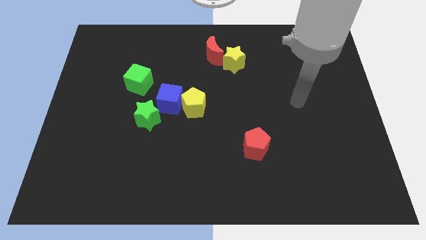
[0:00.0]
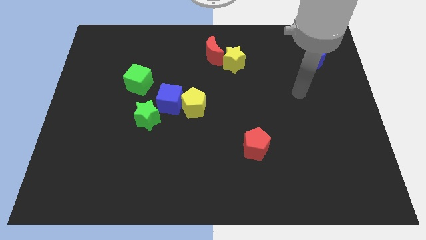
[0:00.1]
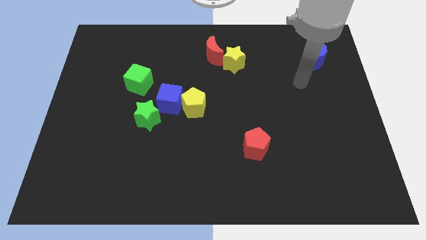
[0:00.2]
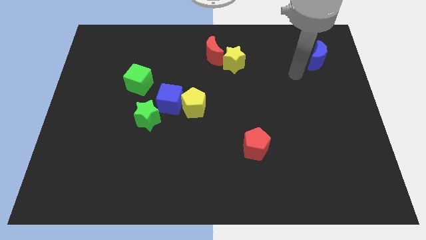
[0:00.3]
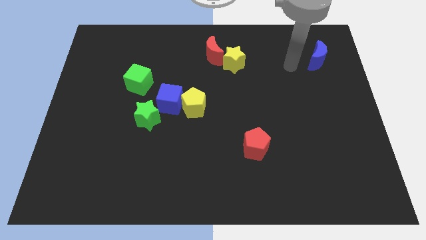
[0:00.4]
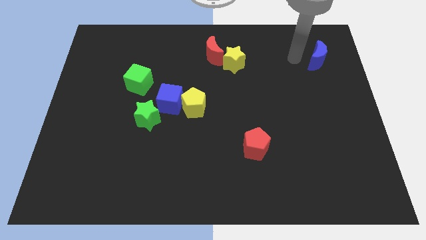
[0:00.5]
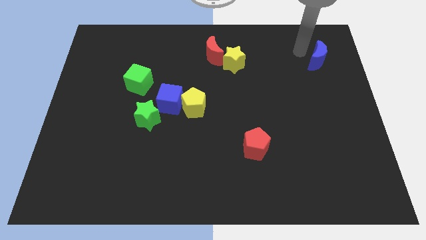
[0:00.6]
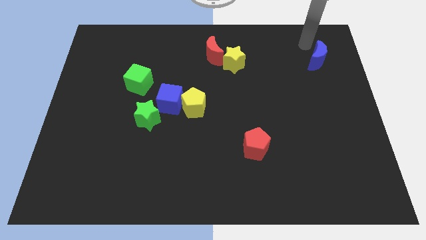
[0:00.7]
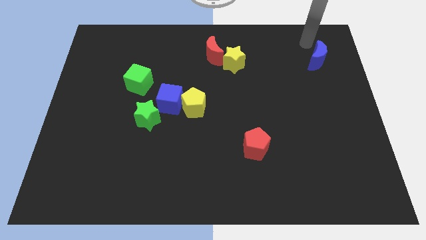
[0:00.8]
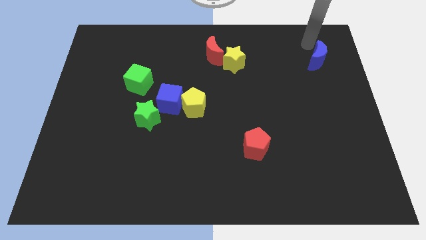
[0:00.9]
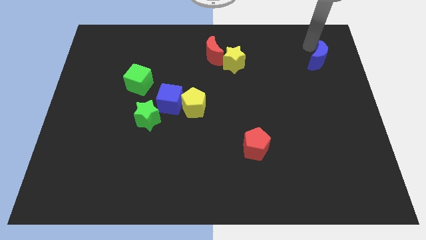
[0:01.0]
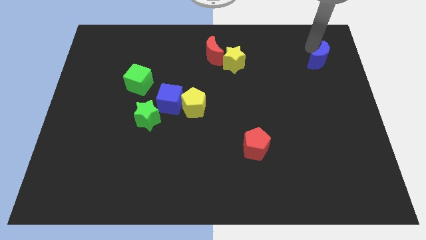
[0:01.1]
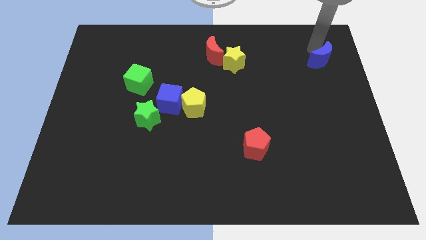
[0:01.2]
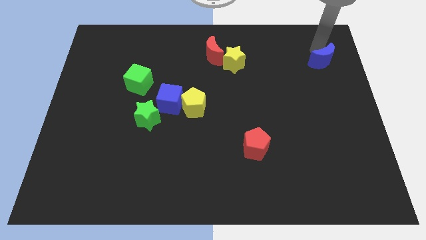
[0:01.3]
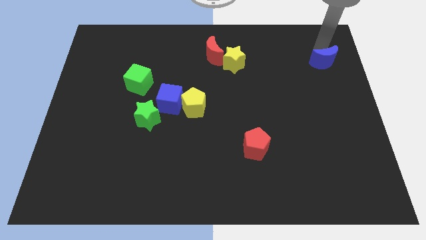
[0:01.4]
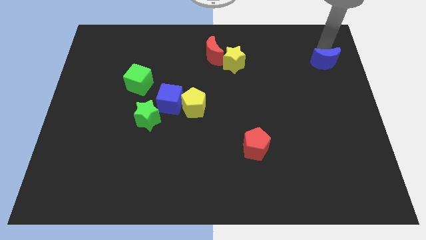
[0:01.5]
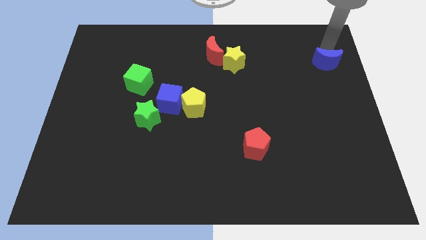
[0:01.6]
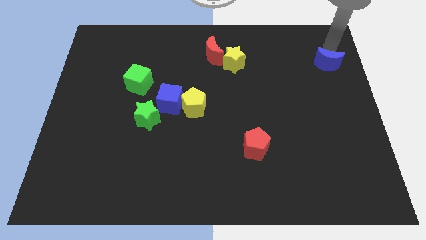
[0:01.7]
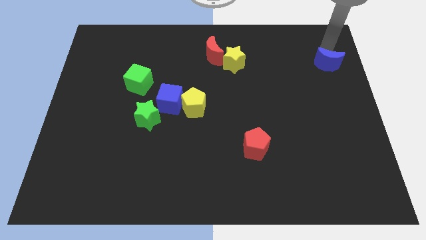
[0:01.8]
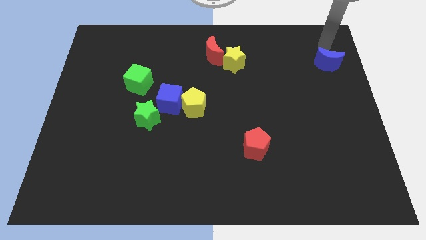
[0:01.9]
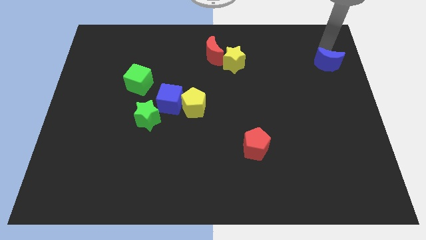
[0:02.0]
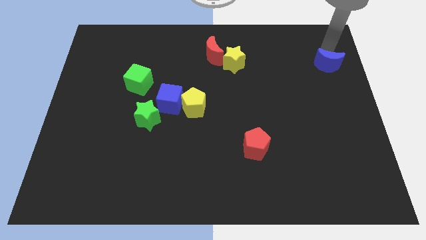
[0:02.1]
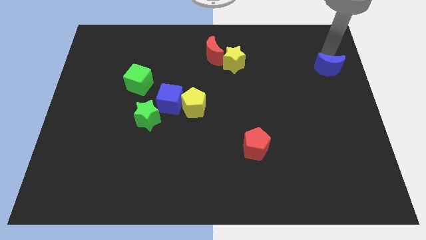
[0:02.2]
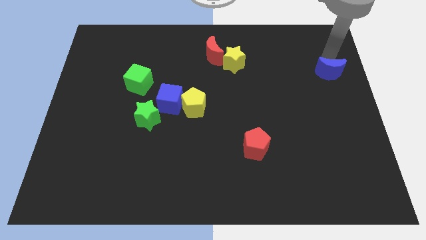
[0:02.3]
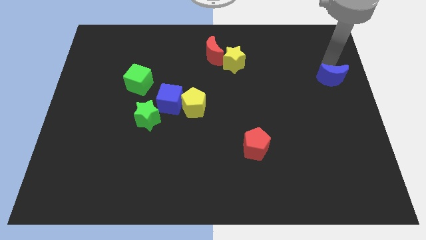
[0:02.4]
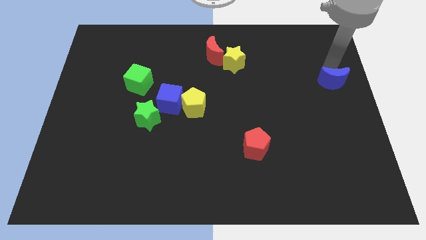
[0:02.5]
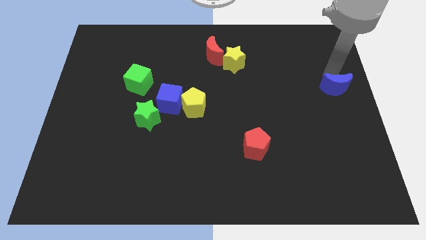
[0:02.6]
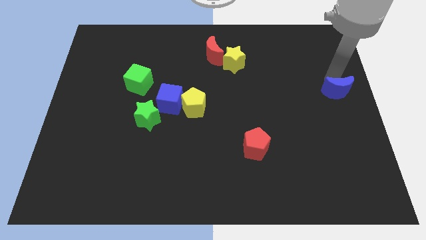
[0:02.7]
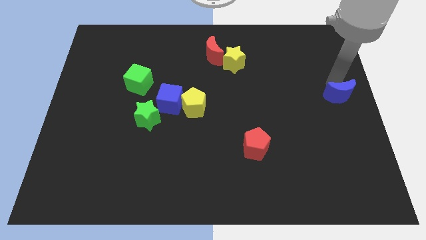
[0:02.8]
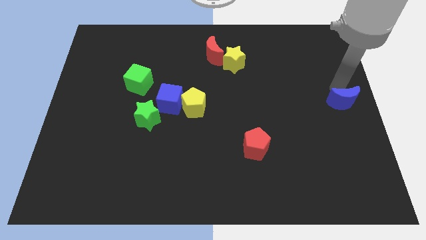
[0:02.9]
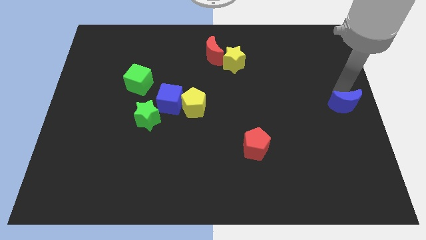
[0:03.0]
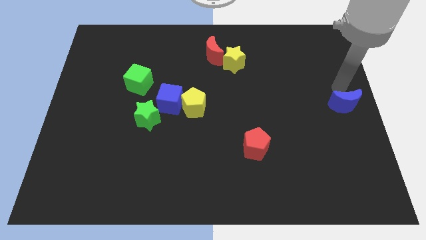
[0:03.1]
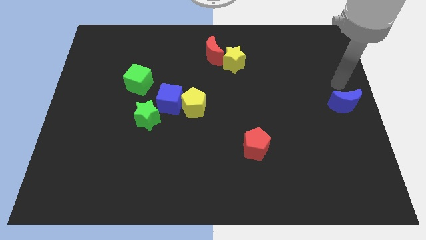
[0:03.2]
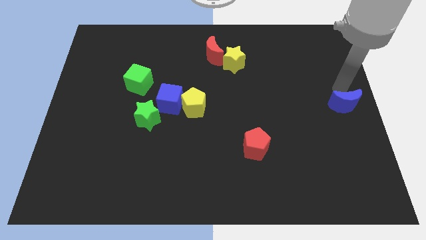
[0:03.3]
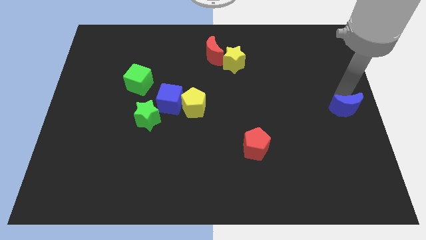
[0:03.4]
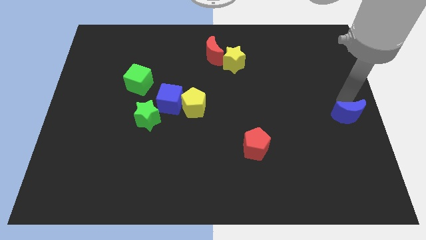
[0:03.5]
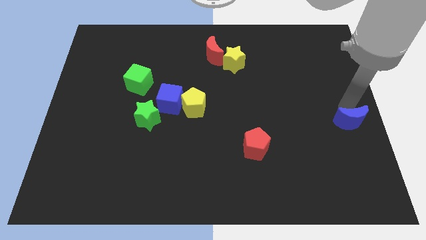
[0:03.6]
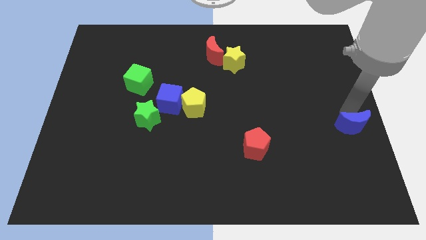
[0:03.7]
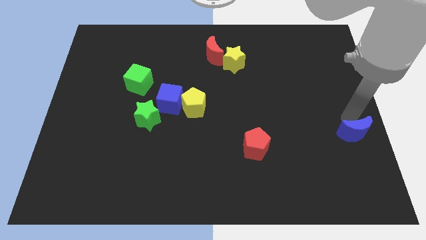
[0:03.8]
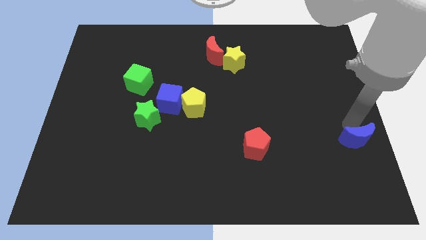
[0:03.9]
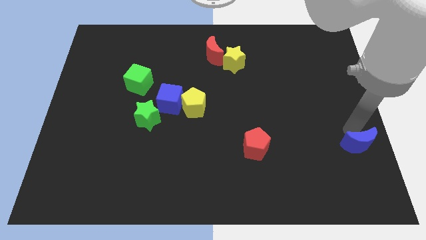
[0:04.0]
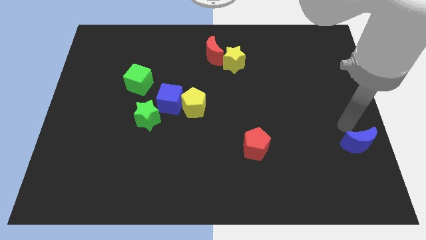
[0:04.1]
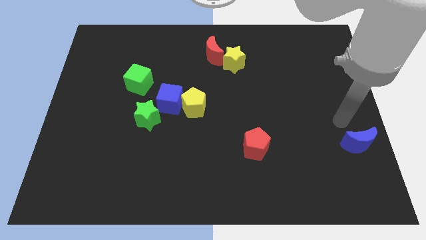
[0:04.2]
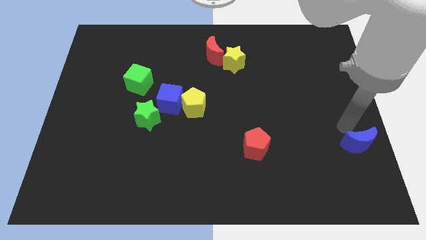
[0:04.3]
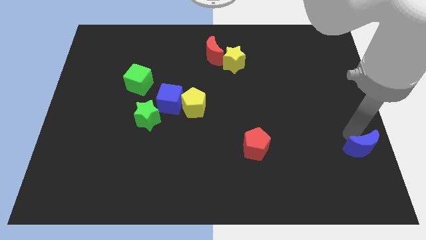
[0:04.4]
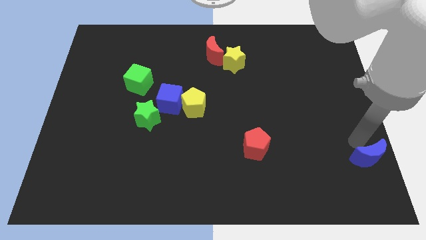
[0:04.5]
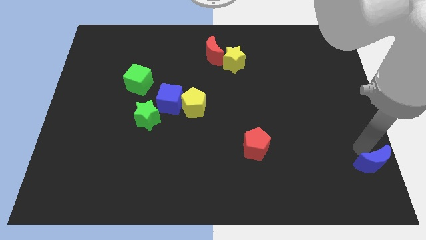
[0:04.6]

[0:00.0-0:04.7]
put the blue moon to the bottom right

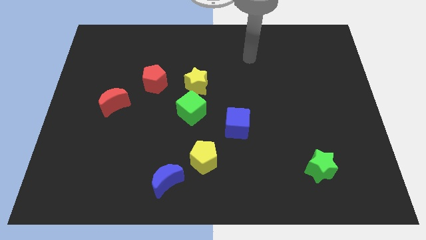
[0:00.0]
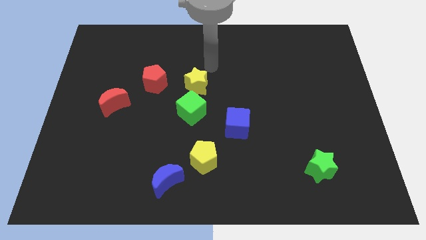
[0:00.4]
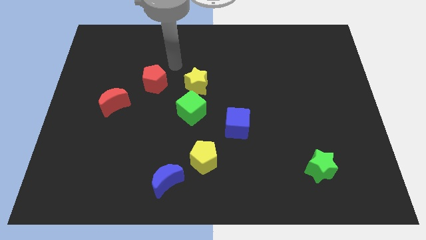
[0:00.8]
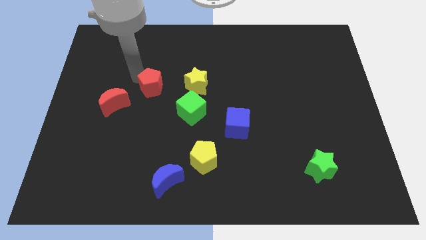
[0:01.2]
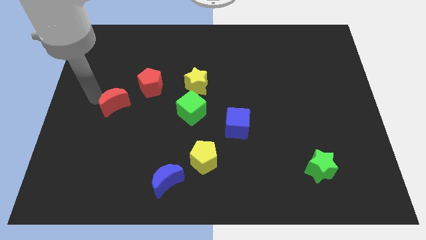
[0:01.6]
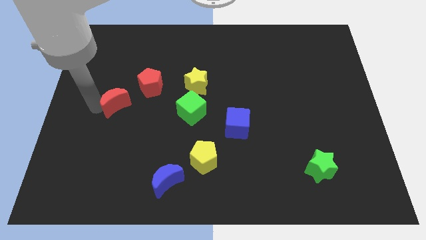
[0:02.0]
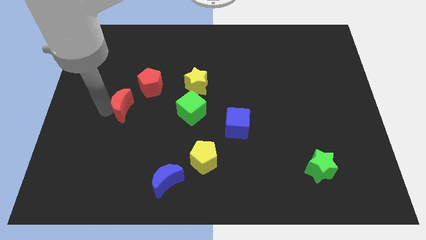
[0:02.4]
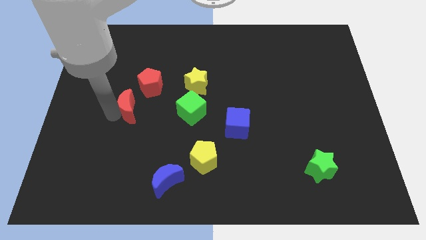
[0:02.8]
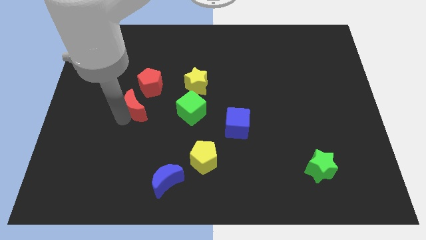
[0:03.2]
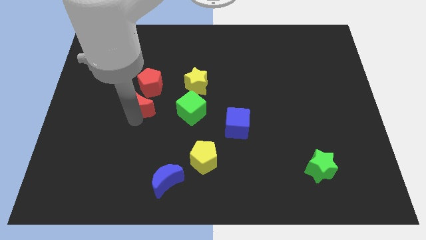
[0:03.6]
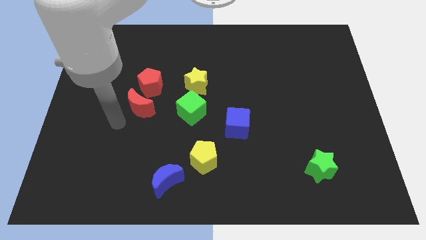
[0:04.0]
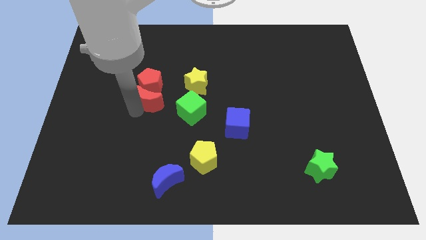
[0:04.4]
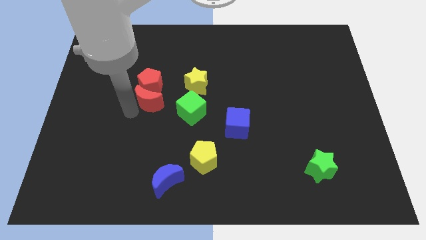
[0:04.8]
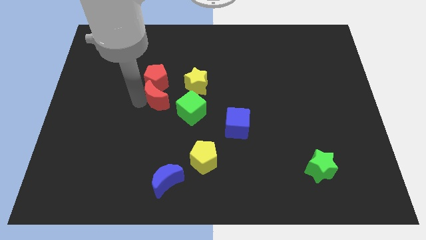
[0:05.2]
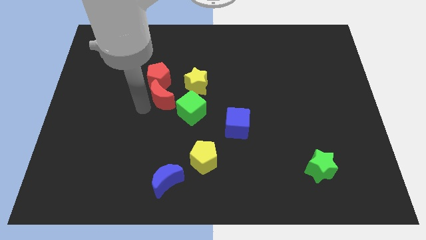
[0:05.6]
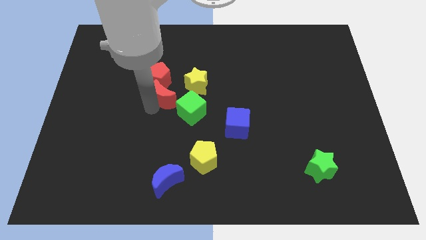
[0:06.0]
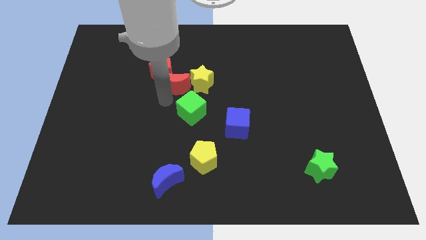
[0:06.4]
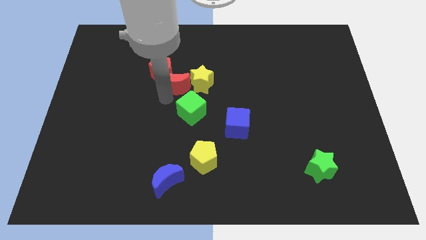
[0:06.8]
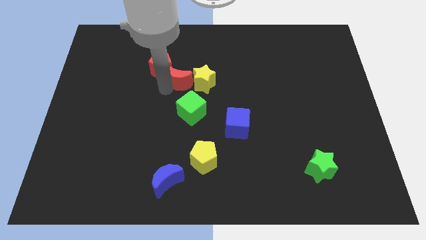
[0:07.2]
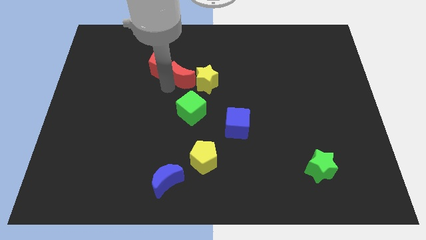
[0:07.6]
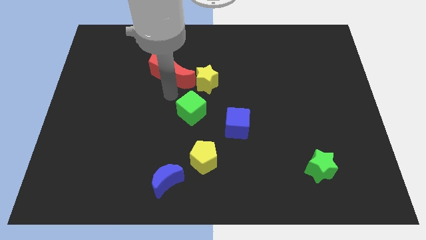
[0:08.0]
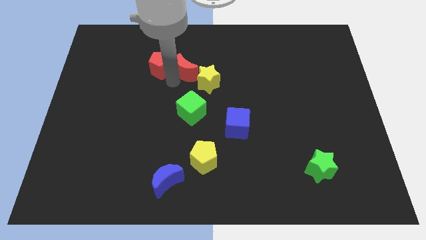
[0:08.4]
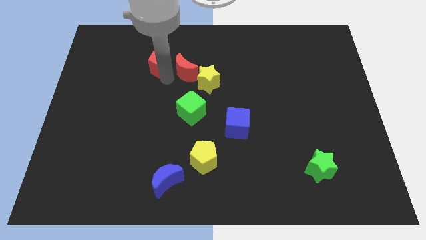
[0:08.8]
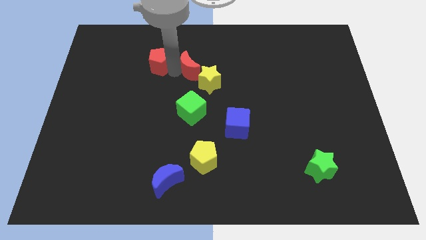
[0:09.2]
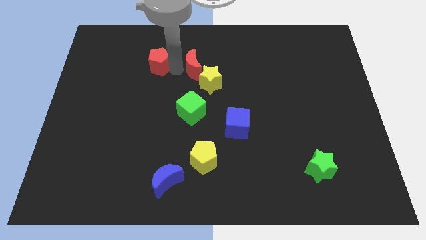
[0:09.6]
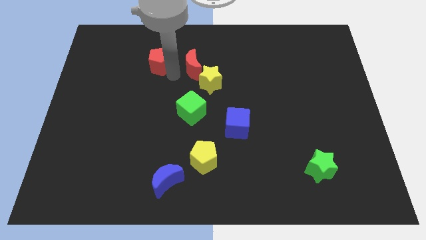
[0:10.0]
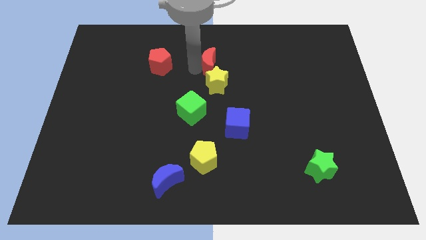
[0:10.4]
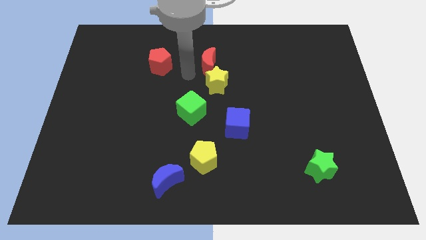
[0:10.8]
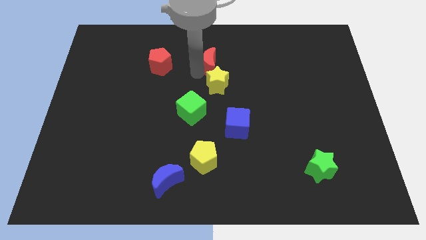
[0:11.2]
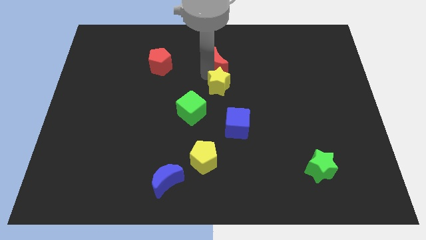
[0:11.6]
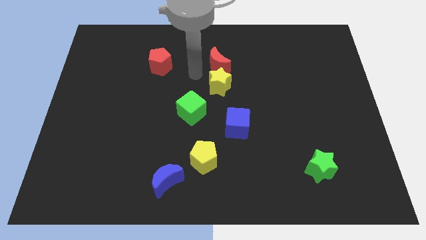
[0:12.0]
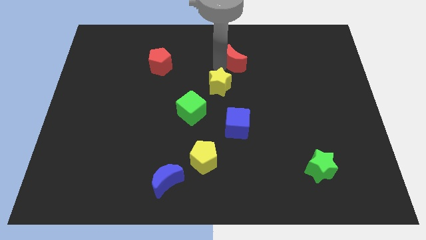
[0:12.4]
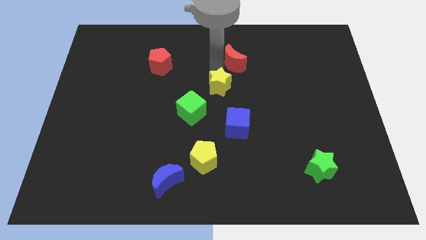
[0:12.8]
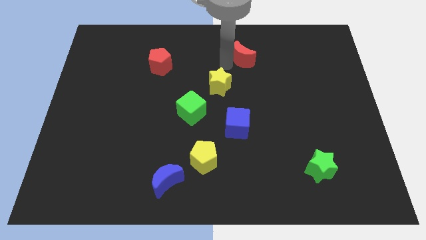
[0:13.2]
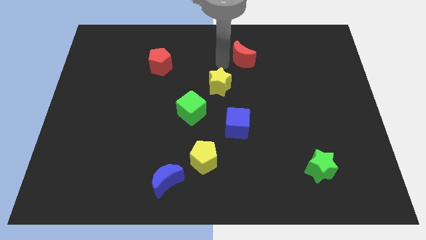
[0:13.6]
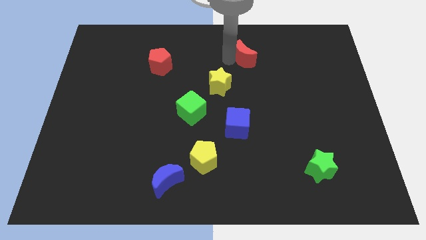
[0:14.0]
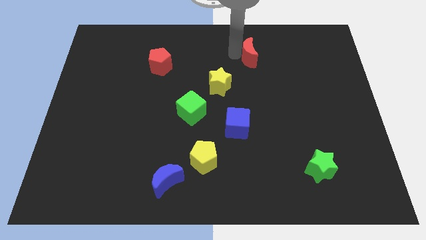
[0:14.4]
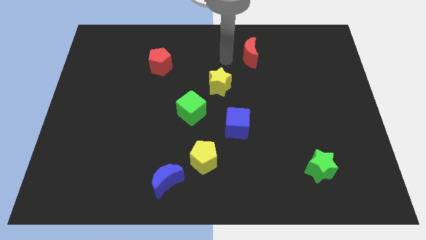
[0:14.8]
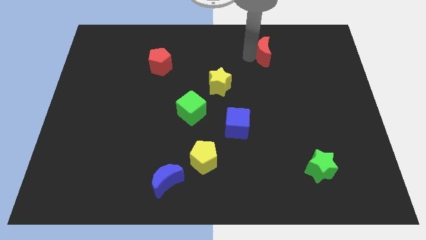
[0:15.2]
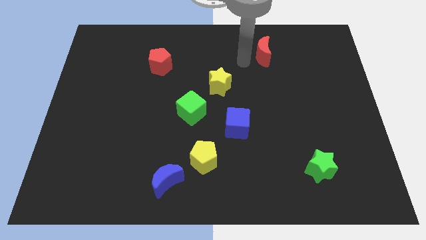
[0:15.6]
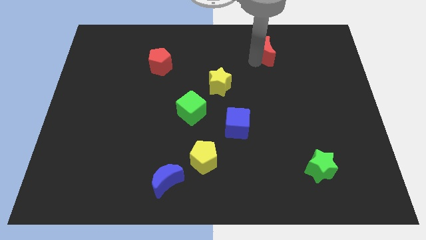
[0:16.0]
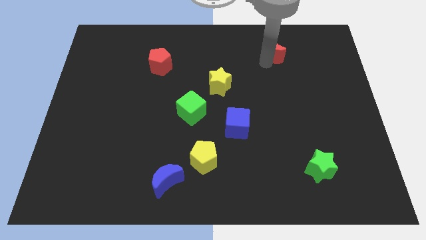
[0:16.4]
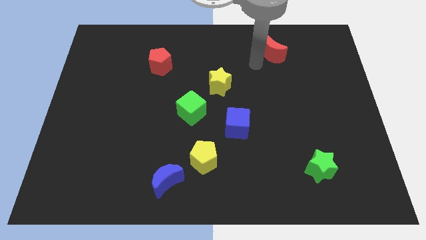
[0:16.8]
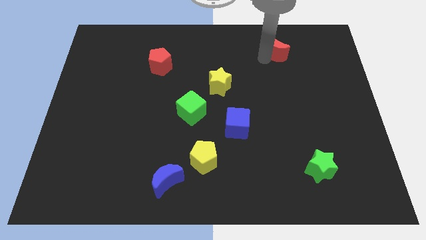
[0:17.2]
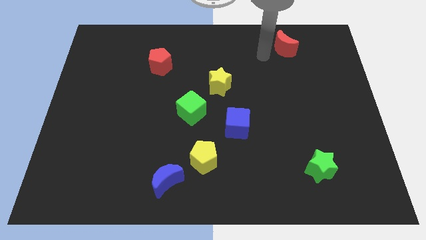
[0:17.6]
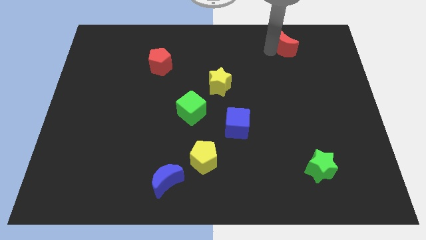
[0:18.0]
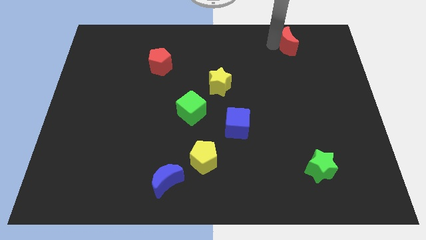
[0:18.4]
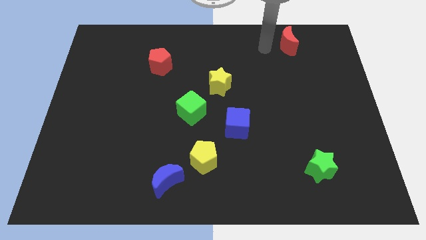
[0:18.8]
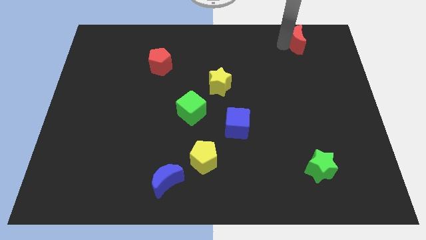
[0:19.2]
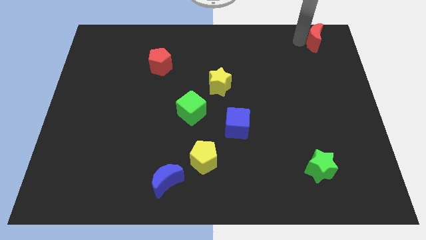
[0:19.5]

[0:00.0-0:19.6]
move the red moon to the top right
